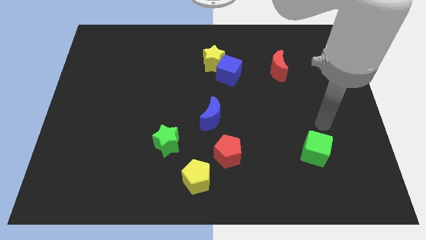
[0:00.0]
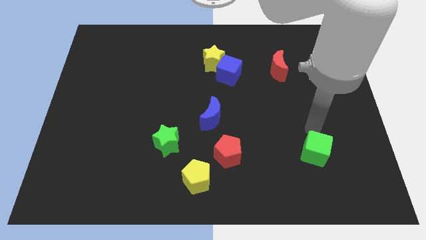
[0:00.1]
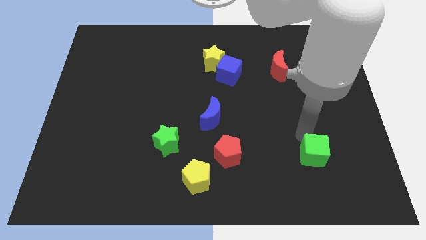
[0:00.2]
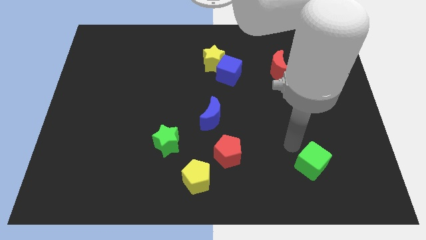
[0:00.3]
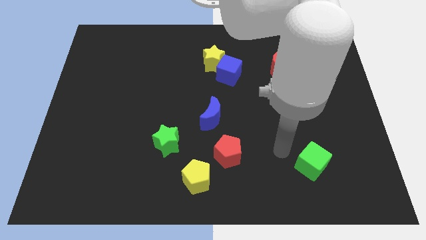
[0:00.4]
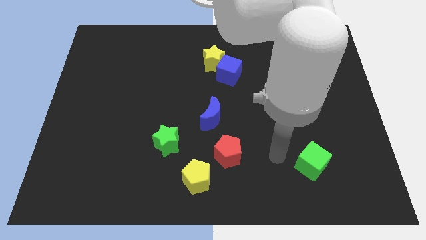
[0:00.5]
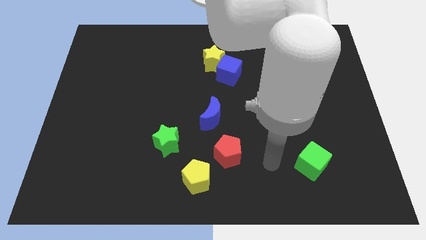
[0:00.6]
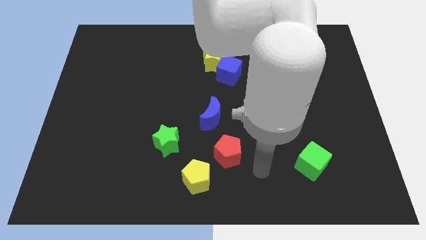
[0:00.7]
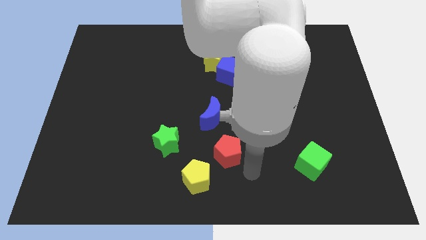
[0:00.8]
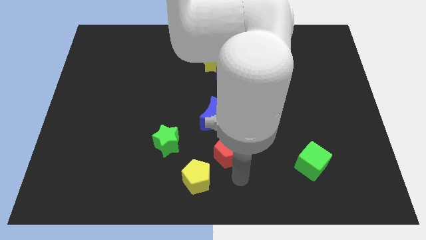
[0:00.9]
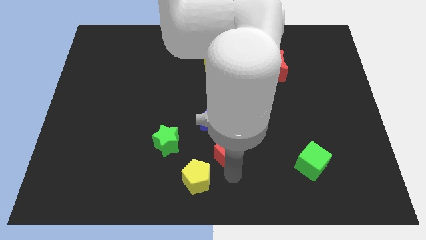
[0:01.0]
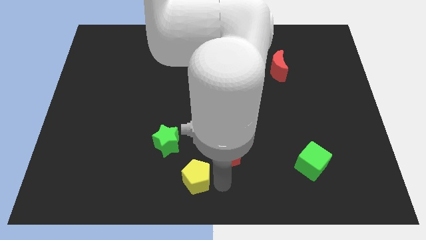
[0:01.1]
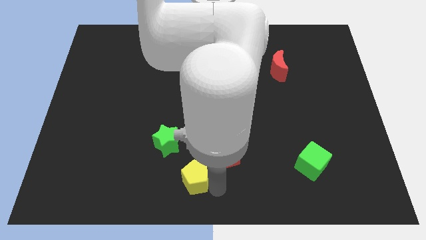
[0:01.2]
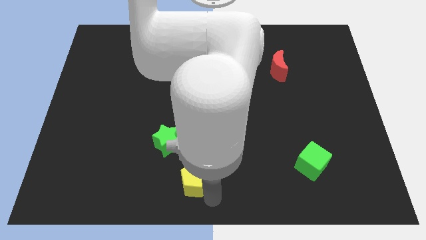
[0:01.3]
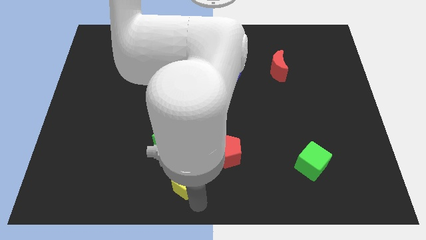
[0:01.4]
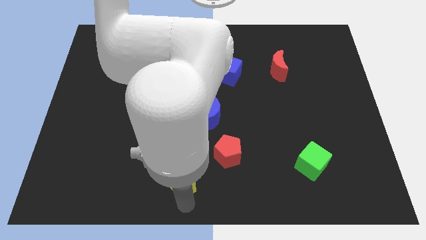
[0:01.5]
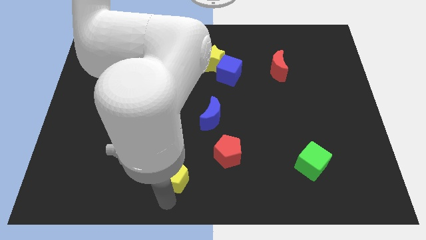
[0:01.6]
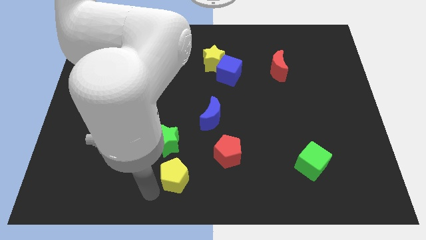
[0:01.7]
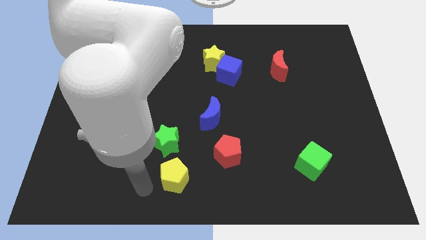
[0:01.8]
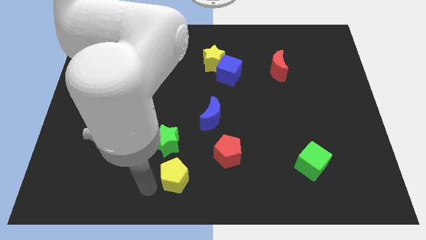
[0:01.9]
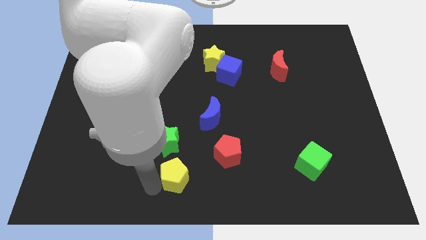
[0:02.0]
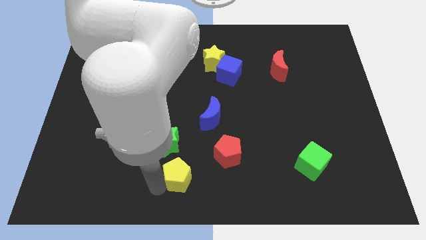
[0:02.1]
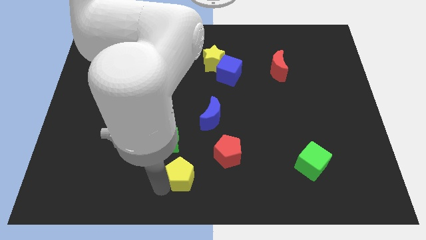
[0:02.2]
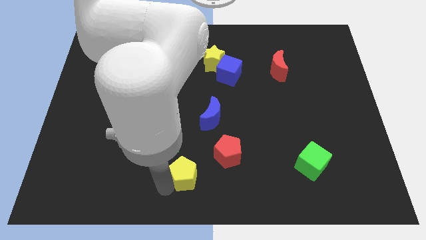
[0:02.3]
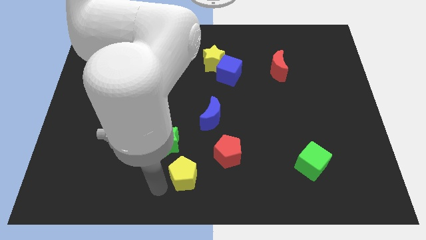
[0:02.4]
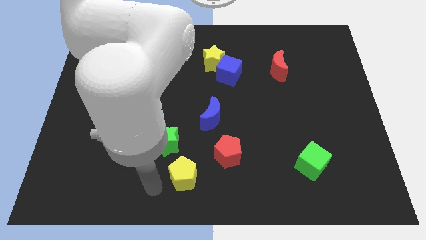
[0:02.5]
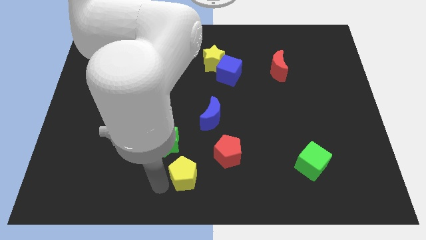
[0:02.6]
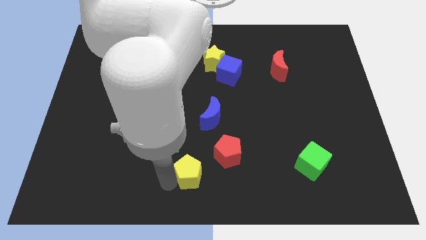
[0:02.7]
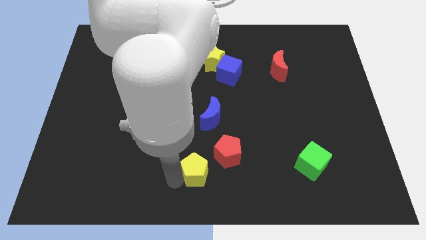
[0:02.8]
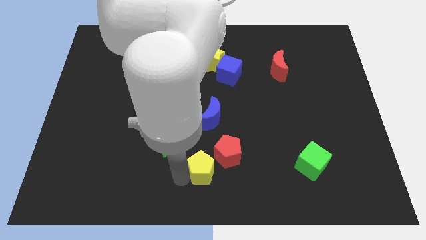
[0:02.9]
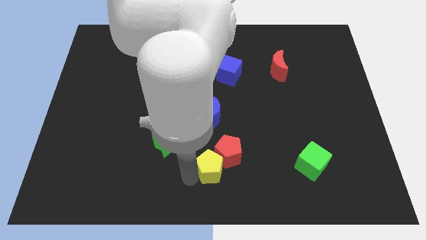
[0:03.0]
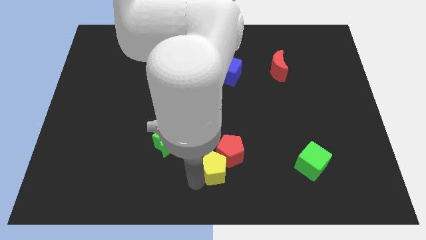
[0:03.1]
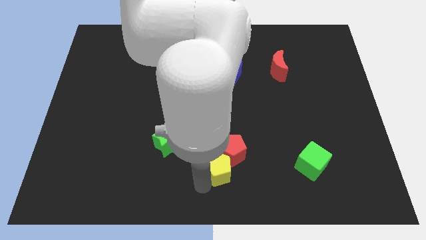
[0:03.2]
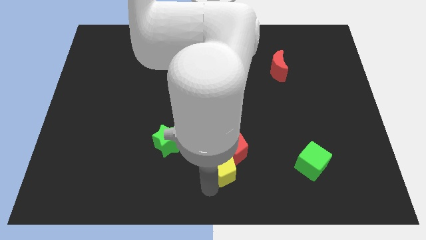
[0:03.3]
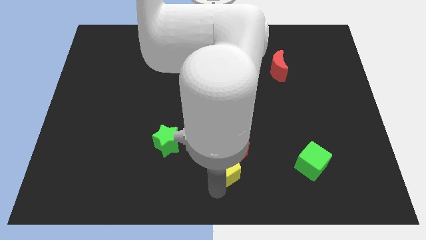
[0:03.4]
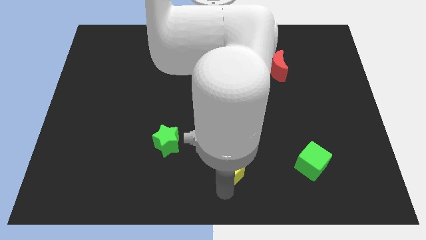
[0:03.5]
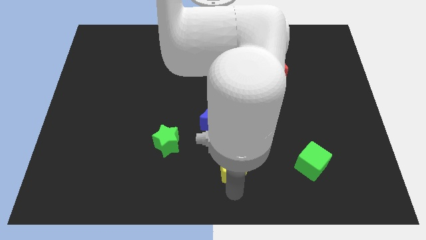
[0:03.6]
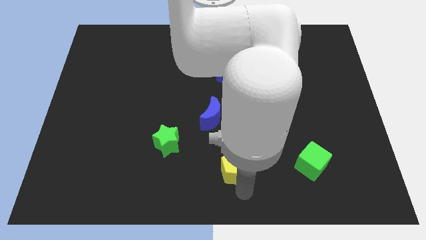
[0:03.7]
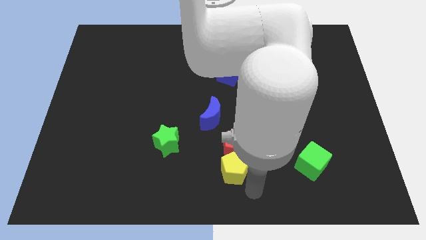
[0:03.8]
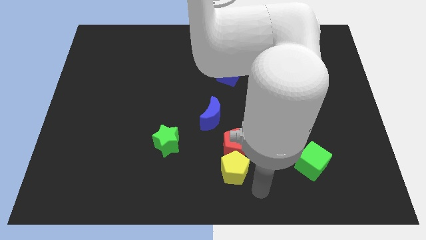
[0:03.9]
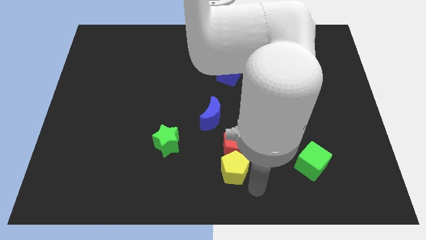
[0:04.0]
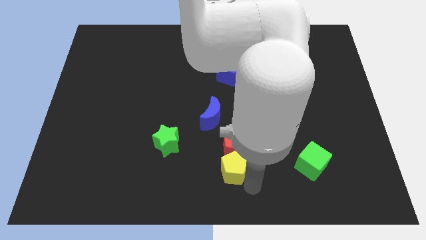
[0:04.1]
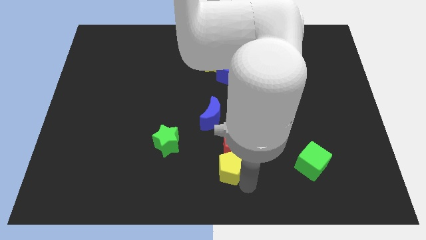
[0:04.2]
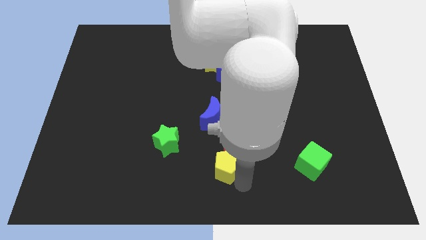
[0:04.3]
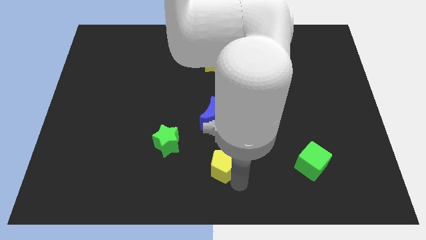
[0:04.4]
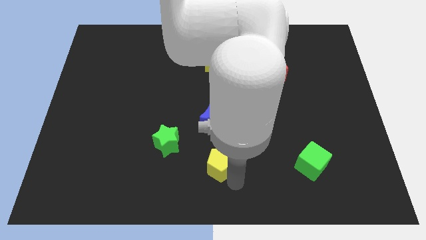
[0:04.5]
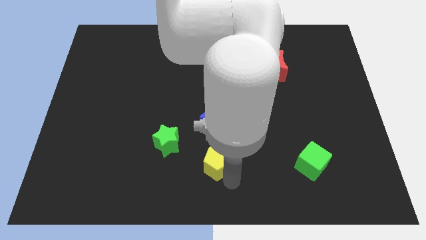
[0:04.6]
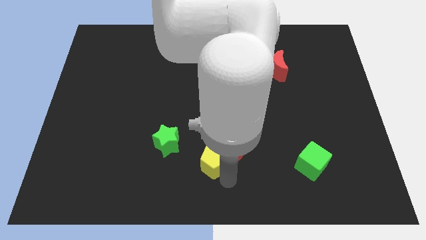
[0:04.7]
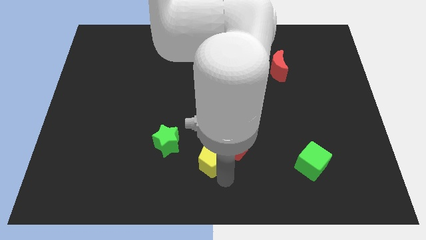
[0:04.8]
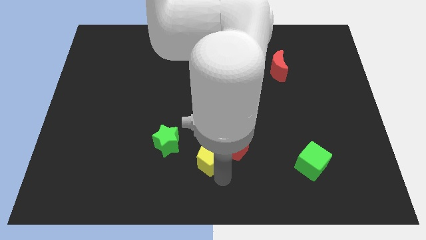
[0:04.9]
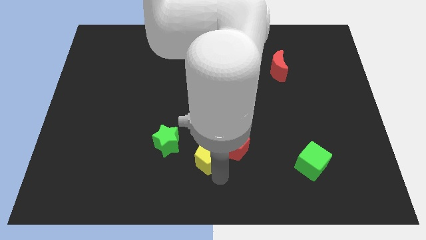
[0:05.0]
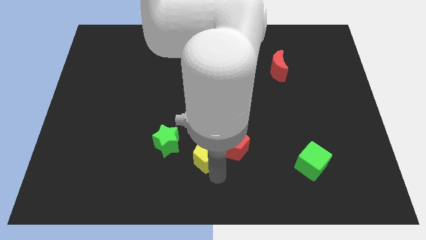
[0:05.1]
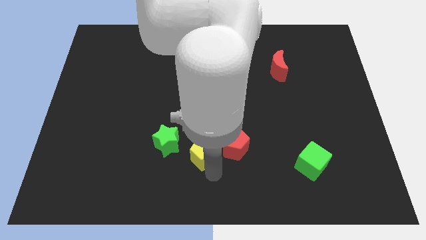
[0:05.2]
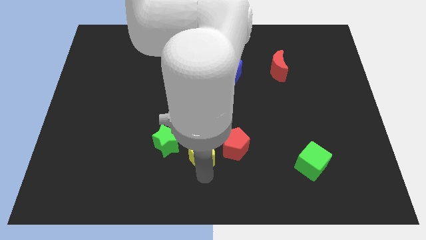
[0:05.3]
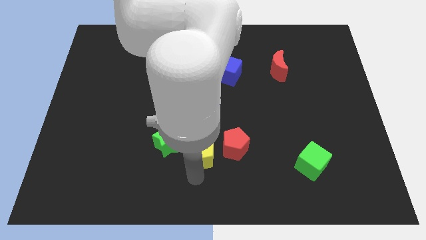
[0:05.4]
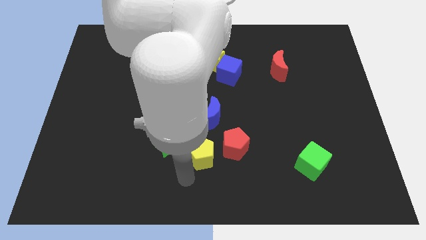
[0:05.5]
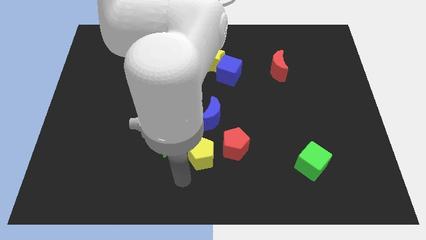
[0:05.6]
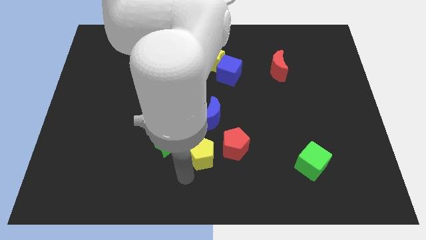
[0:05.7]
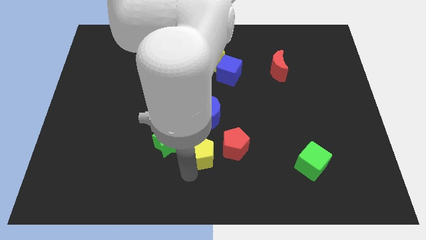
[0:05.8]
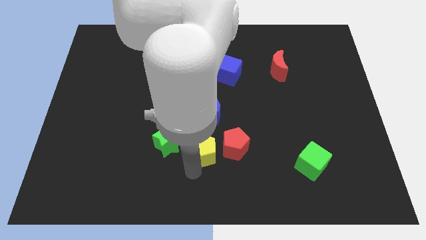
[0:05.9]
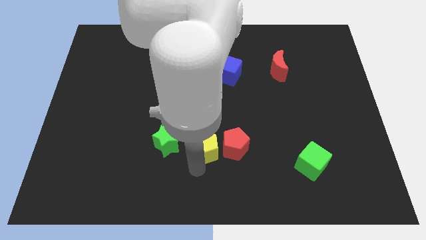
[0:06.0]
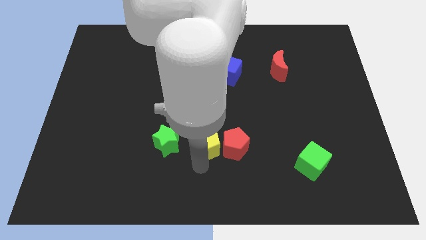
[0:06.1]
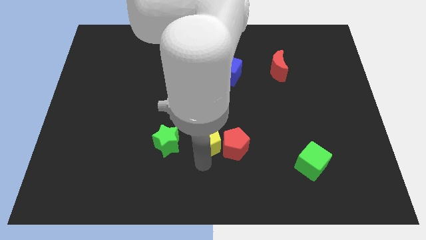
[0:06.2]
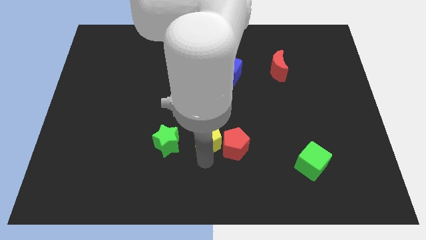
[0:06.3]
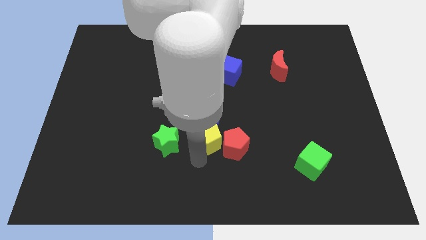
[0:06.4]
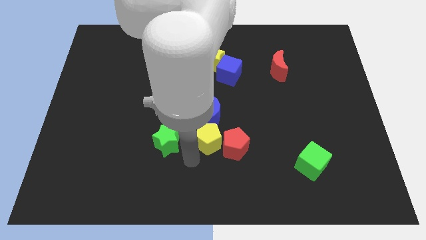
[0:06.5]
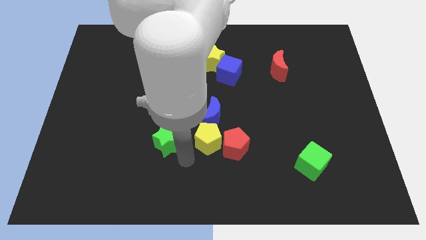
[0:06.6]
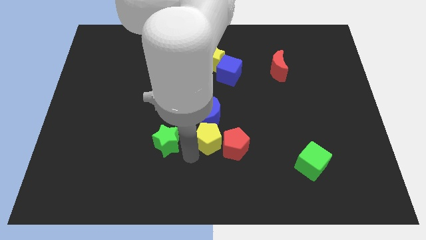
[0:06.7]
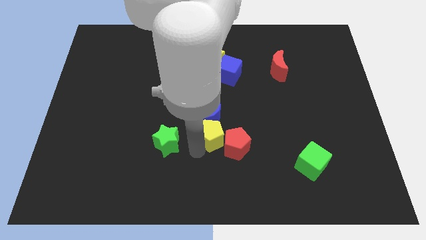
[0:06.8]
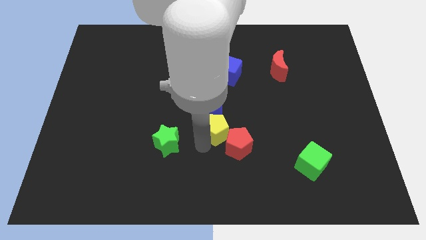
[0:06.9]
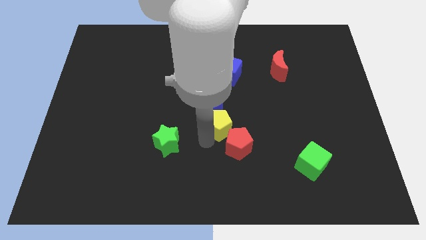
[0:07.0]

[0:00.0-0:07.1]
slide the yellow pentagon to the top side of the red pentagon

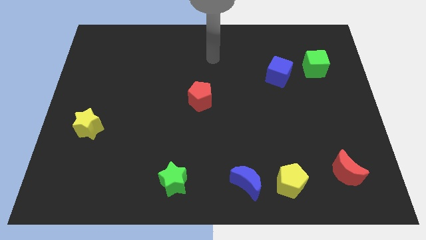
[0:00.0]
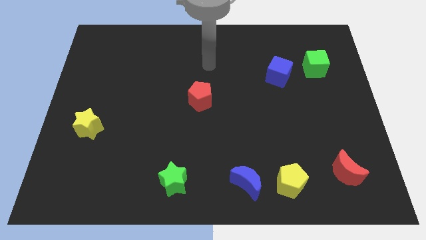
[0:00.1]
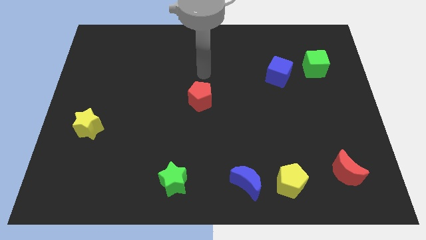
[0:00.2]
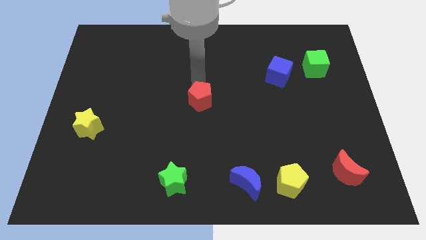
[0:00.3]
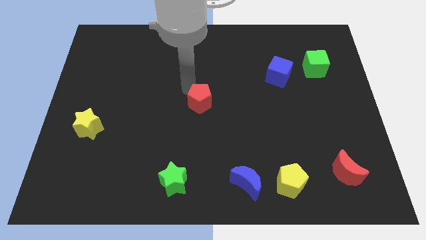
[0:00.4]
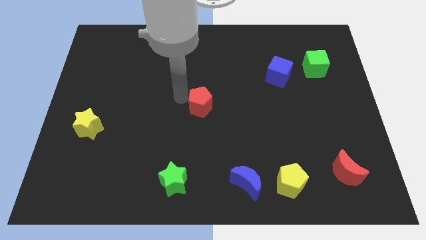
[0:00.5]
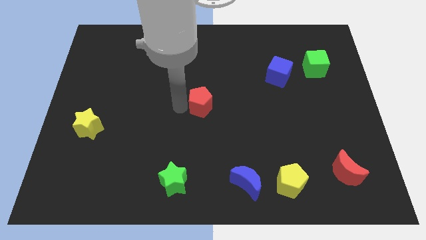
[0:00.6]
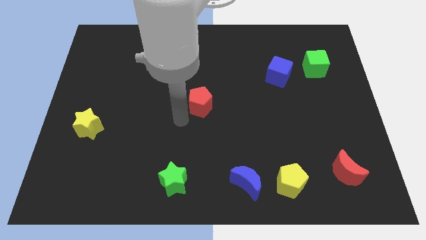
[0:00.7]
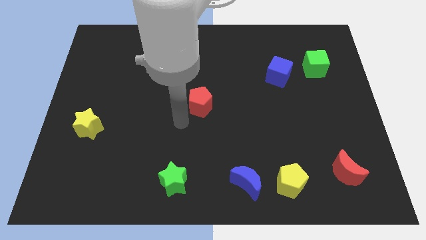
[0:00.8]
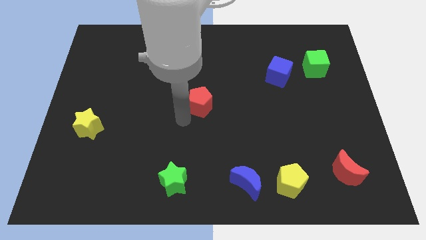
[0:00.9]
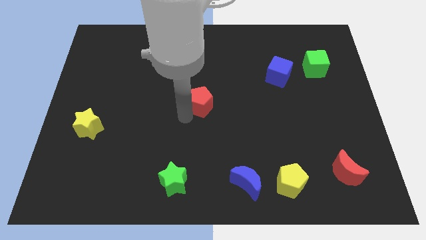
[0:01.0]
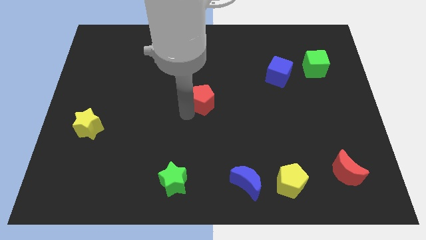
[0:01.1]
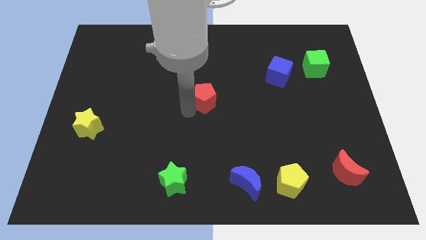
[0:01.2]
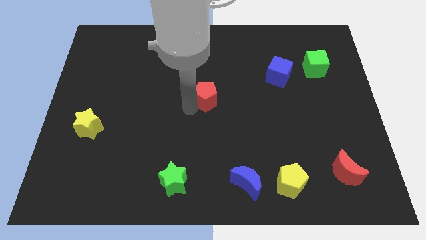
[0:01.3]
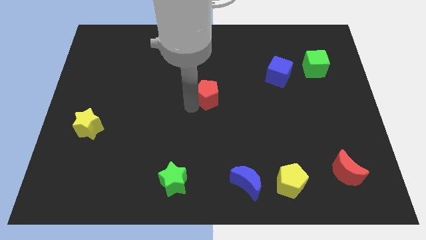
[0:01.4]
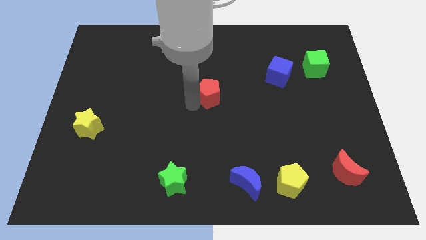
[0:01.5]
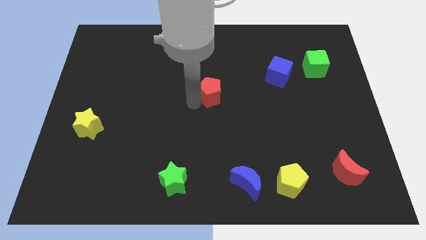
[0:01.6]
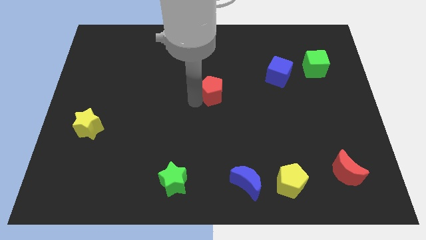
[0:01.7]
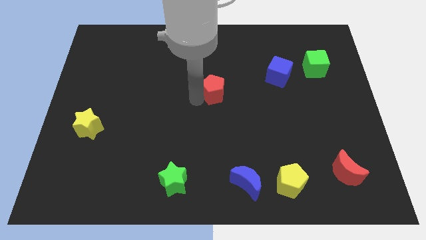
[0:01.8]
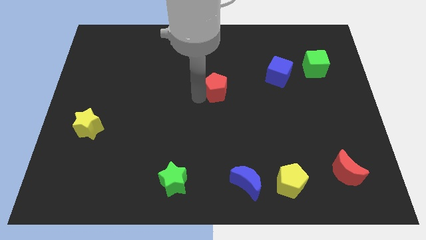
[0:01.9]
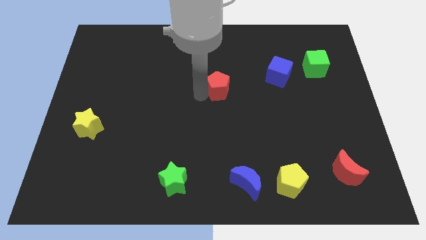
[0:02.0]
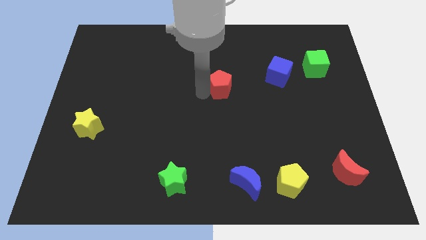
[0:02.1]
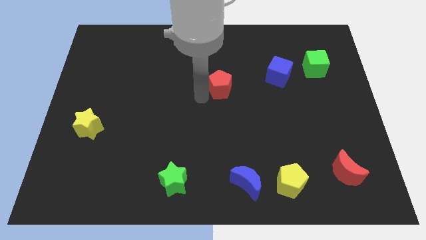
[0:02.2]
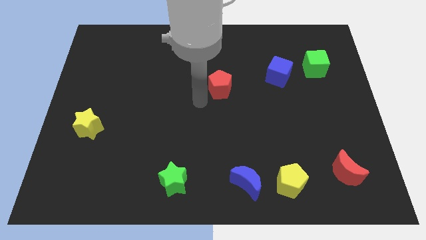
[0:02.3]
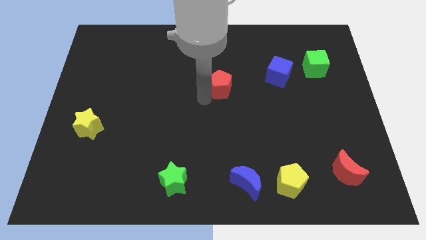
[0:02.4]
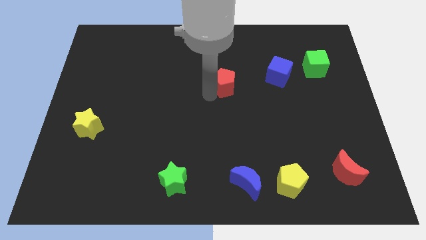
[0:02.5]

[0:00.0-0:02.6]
put the red pentagon to the left side of the blue cube
